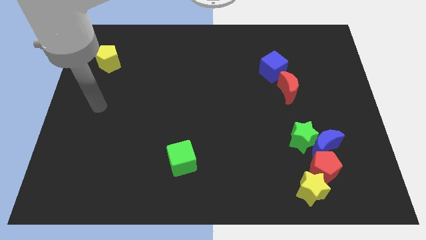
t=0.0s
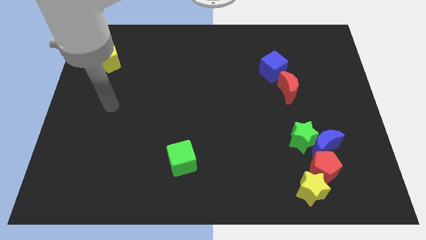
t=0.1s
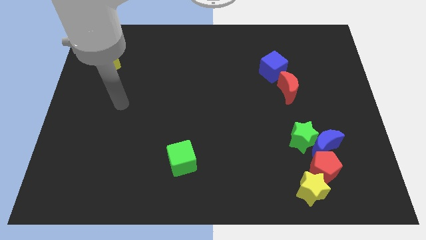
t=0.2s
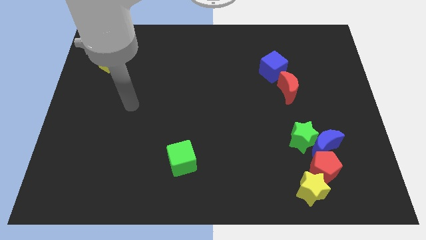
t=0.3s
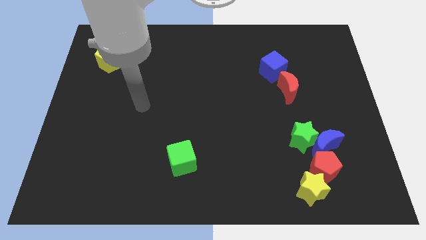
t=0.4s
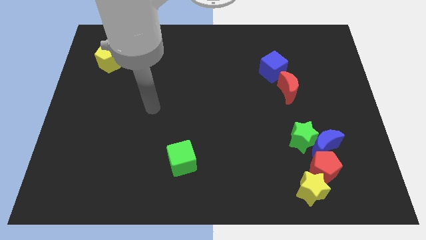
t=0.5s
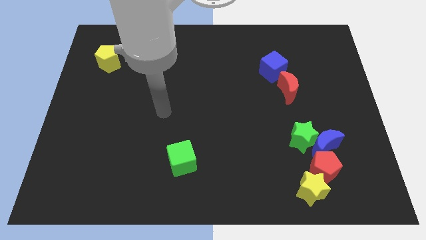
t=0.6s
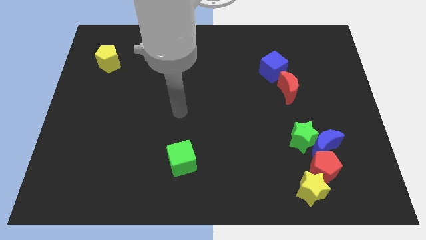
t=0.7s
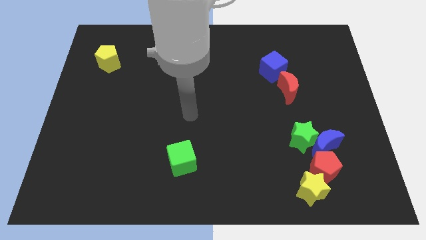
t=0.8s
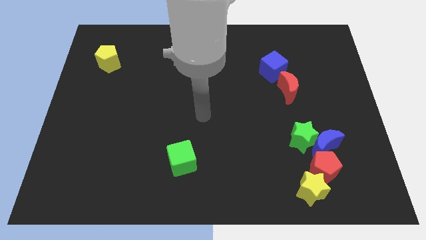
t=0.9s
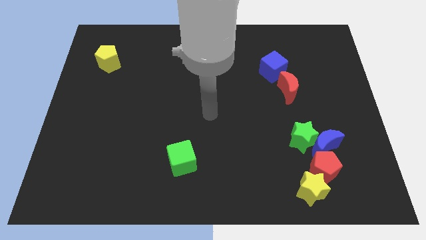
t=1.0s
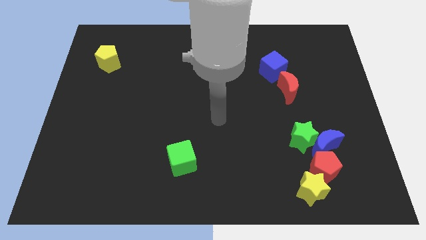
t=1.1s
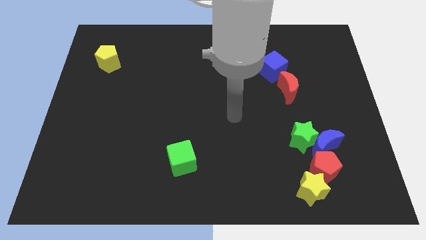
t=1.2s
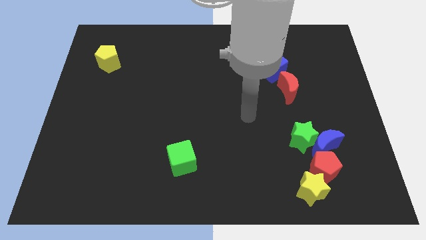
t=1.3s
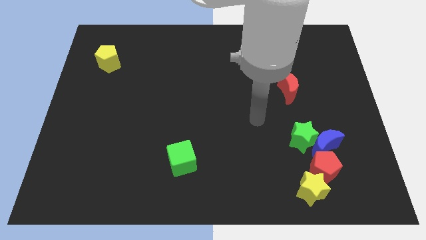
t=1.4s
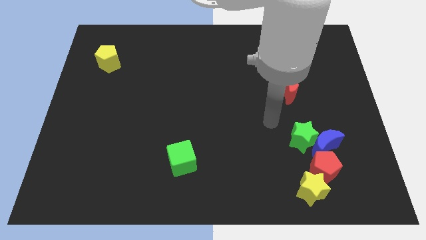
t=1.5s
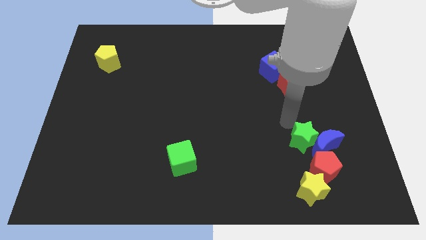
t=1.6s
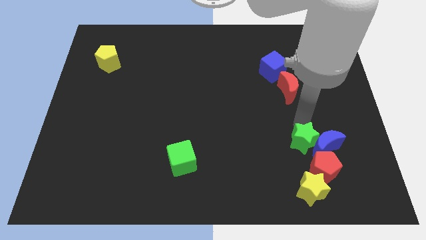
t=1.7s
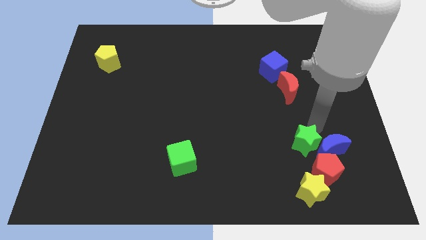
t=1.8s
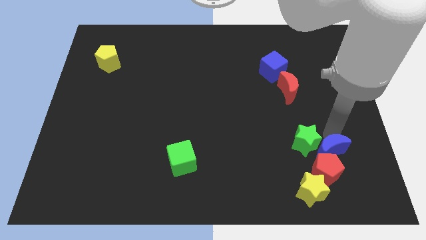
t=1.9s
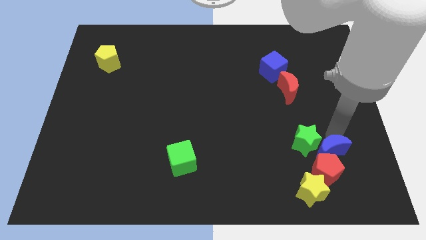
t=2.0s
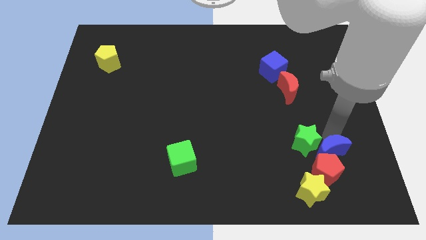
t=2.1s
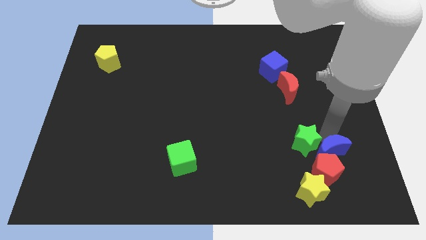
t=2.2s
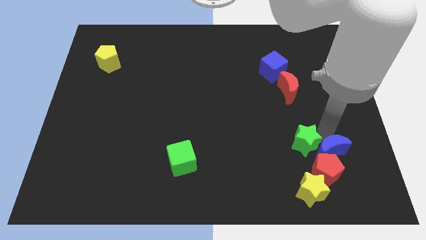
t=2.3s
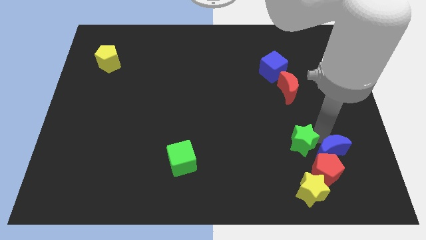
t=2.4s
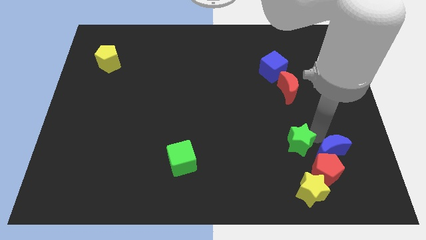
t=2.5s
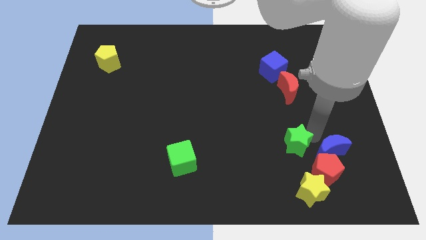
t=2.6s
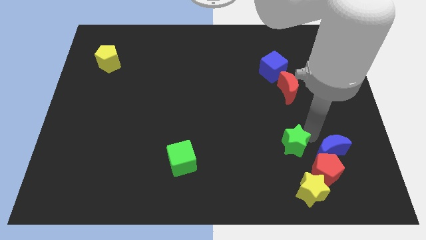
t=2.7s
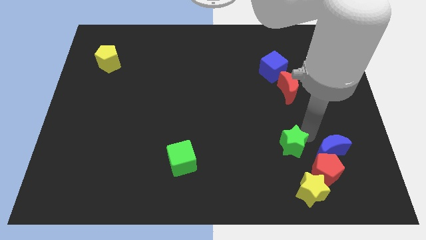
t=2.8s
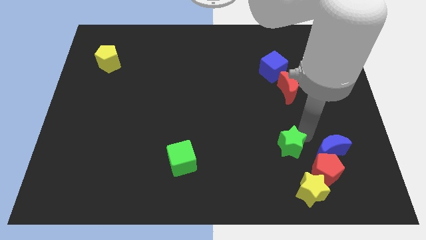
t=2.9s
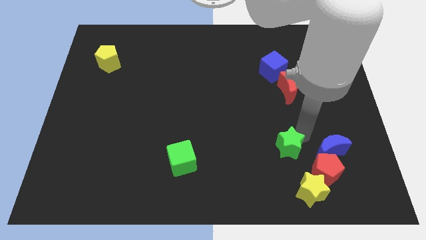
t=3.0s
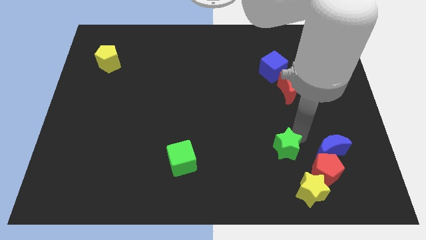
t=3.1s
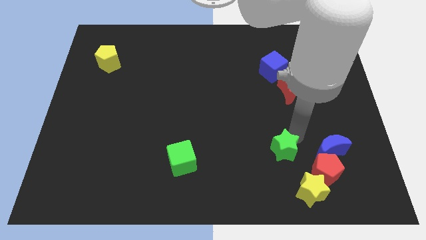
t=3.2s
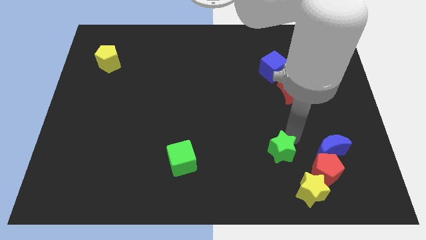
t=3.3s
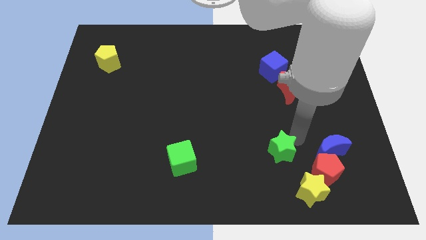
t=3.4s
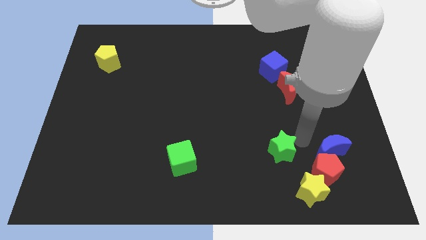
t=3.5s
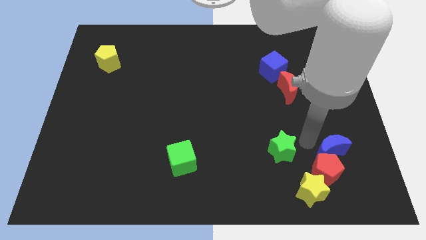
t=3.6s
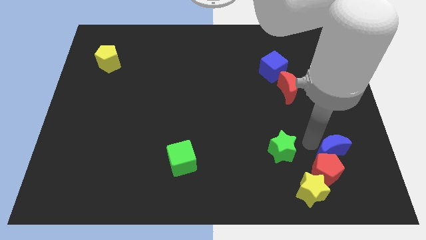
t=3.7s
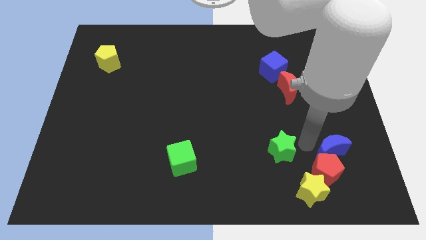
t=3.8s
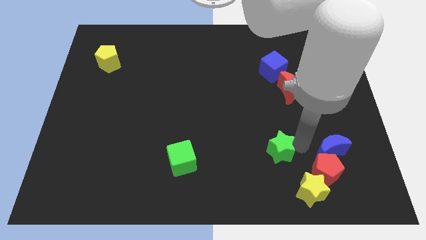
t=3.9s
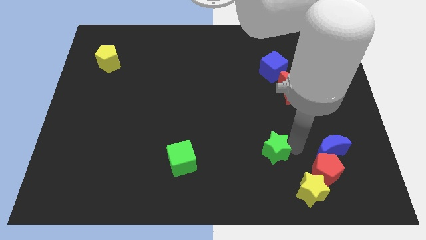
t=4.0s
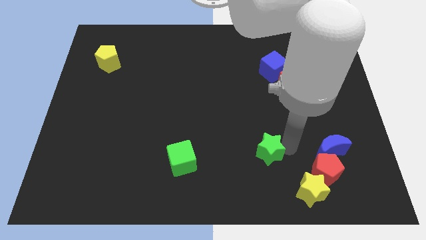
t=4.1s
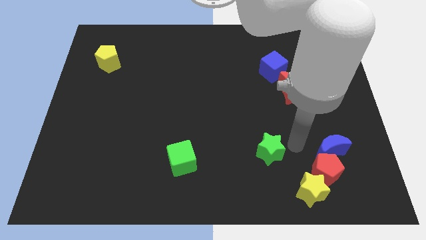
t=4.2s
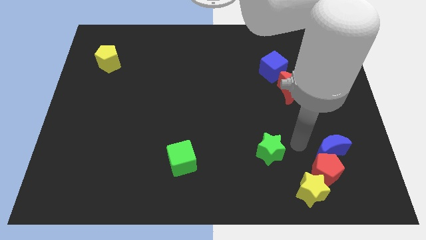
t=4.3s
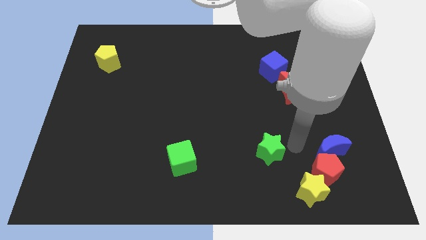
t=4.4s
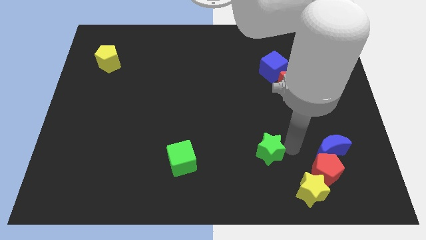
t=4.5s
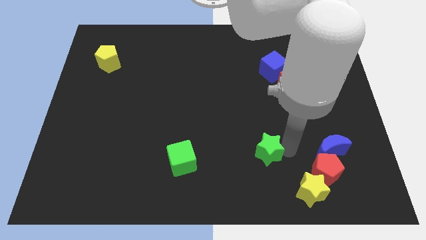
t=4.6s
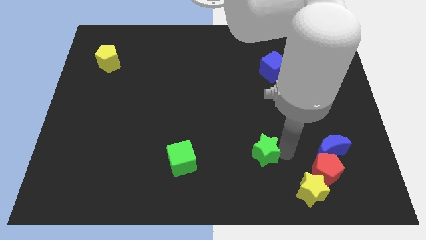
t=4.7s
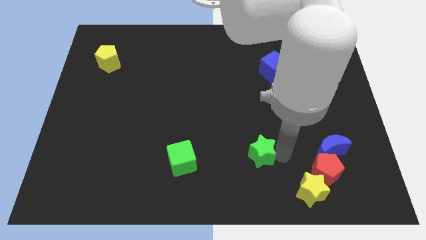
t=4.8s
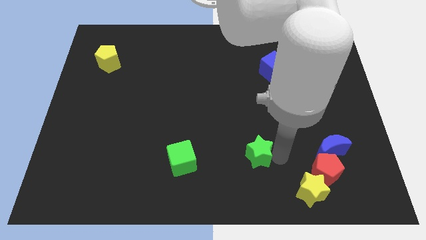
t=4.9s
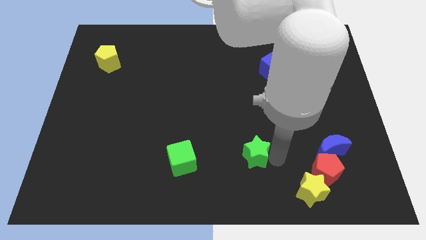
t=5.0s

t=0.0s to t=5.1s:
put the green star to the right of the green cube

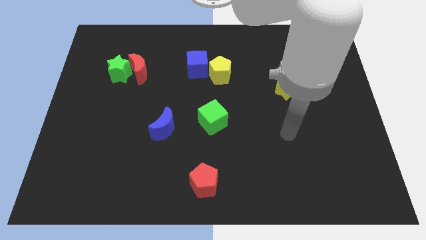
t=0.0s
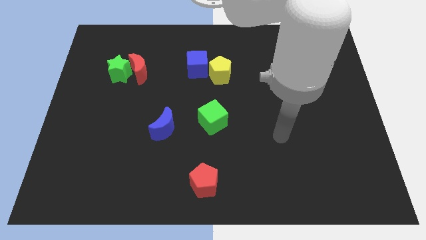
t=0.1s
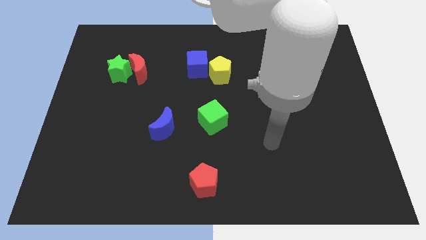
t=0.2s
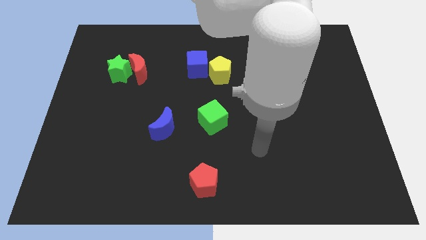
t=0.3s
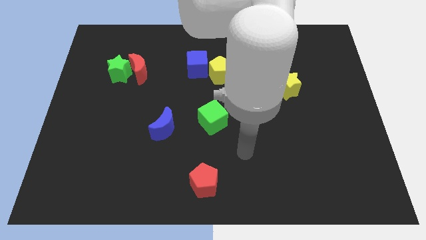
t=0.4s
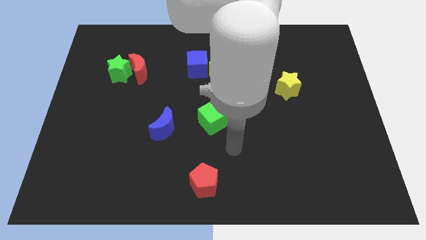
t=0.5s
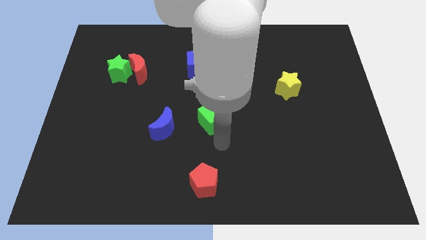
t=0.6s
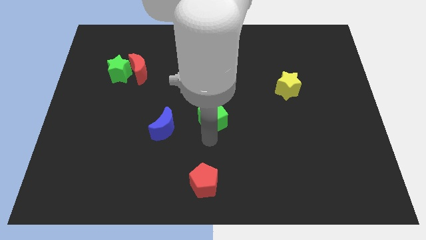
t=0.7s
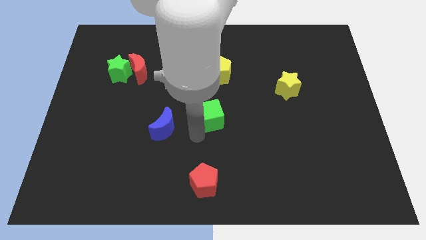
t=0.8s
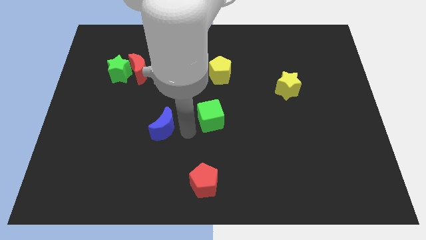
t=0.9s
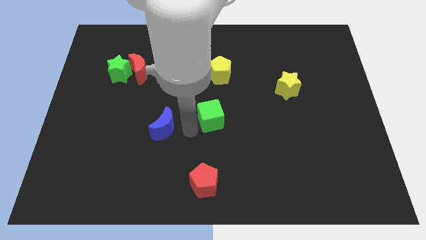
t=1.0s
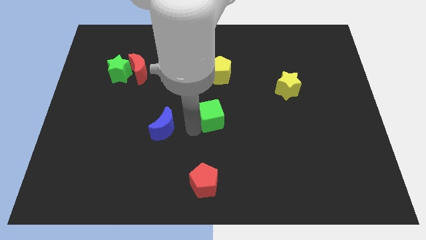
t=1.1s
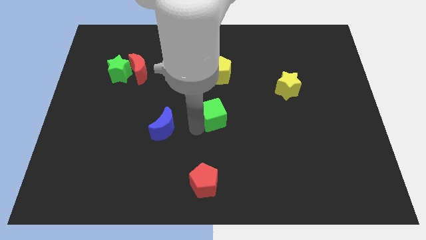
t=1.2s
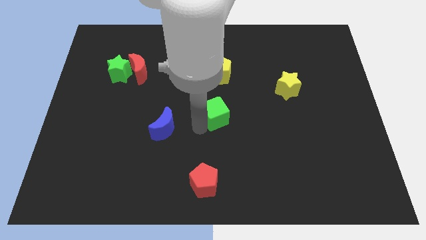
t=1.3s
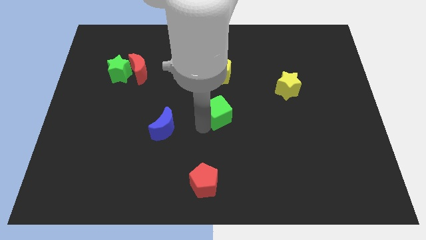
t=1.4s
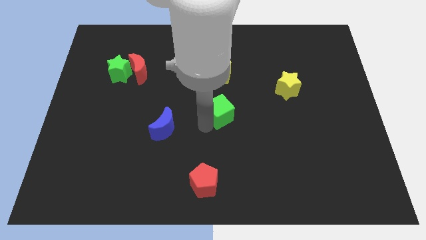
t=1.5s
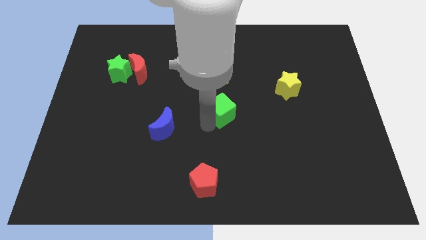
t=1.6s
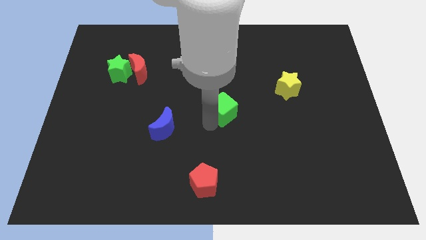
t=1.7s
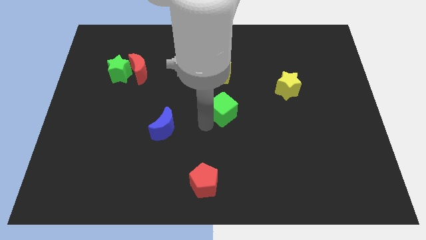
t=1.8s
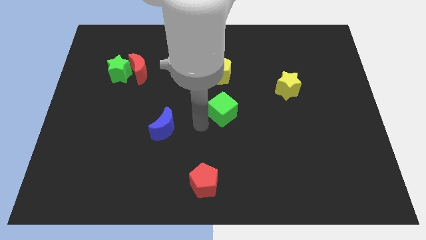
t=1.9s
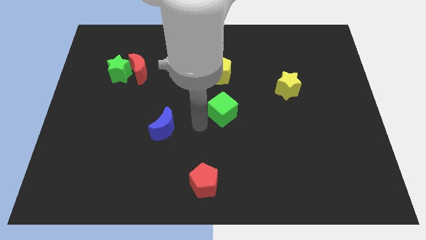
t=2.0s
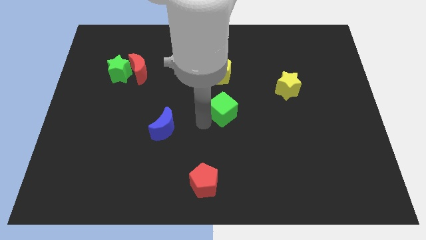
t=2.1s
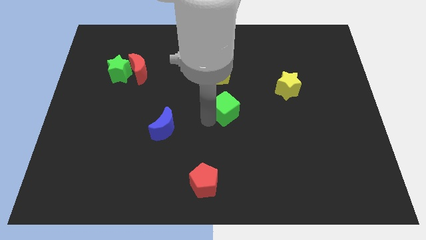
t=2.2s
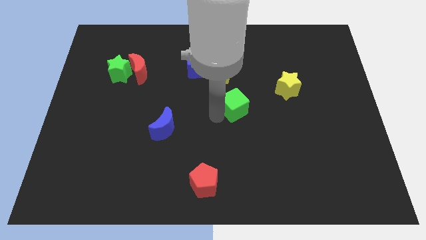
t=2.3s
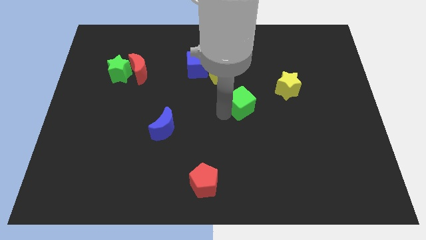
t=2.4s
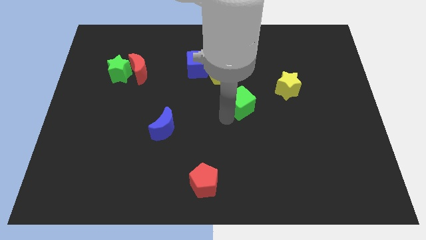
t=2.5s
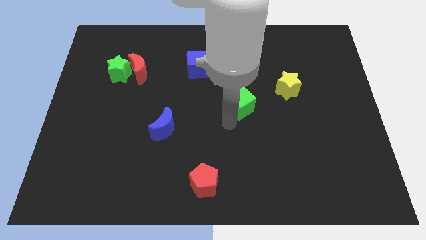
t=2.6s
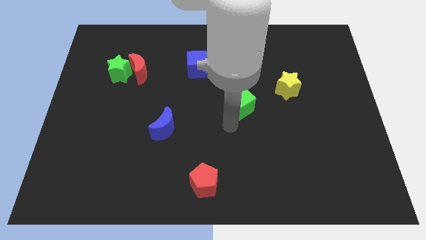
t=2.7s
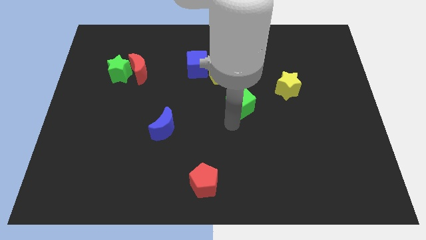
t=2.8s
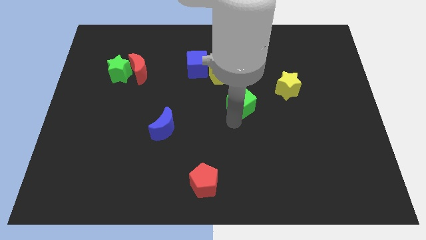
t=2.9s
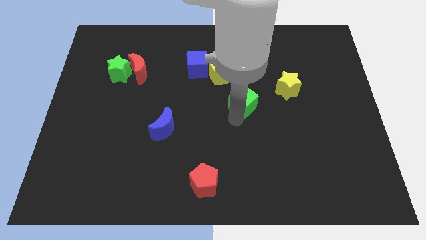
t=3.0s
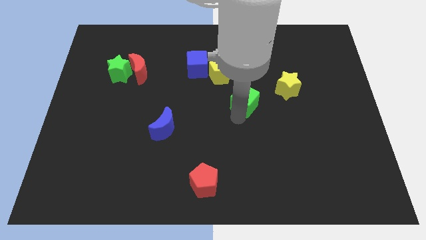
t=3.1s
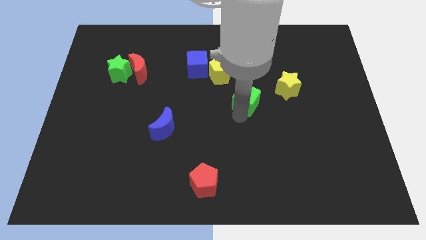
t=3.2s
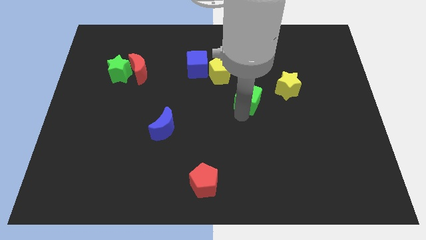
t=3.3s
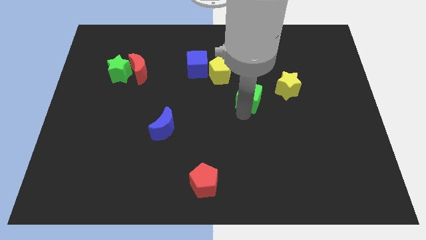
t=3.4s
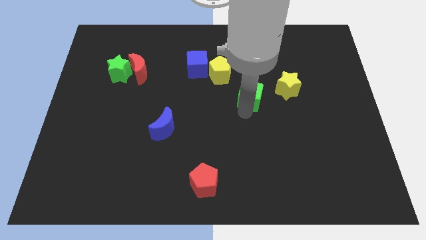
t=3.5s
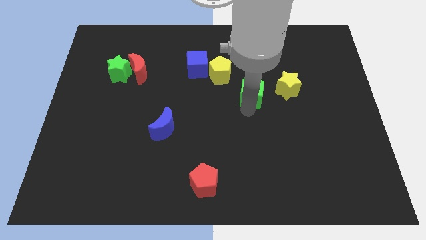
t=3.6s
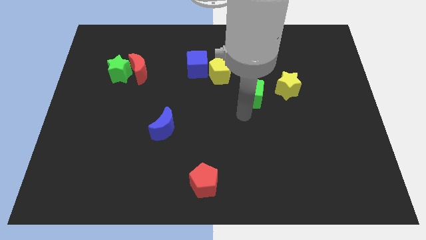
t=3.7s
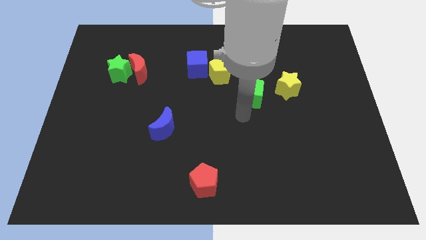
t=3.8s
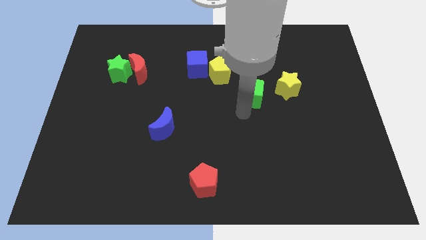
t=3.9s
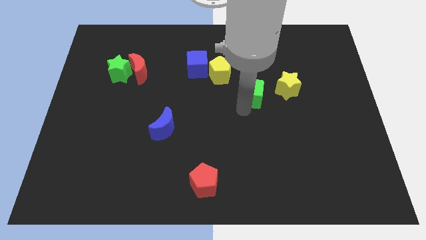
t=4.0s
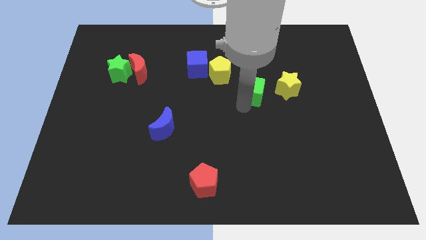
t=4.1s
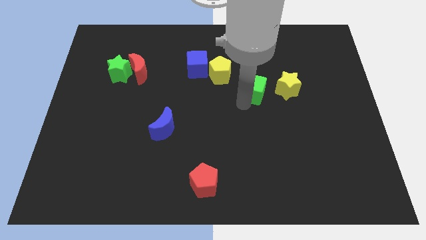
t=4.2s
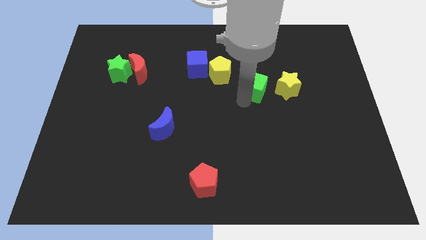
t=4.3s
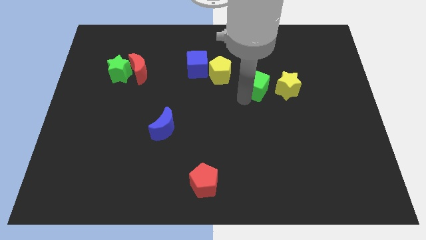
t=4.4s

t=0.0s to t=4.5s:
put the green cube to the right side of the yellow pentagon
